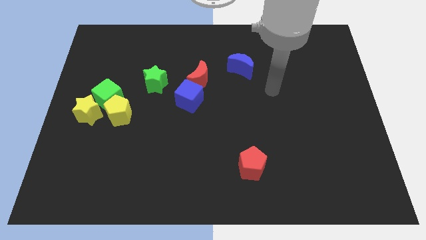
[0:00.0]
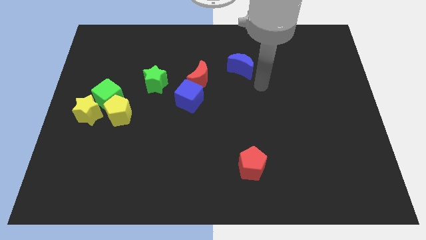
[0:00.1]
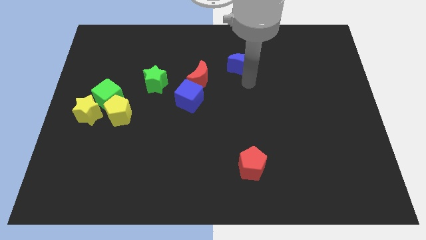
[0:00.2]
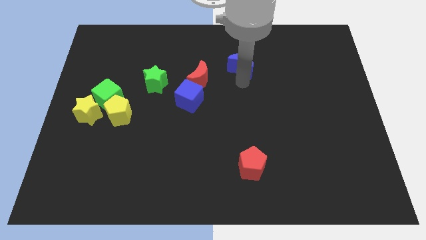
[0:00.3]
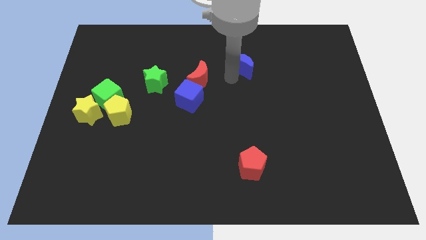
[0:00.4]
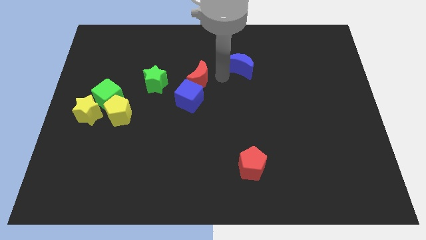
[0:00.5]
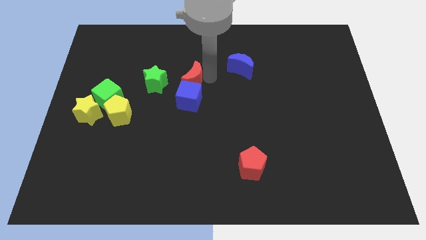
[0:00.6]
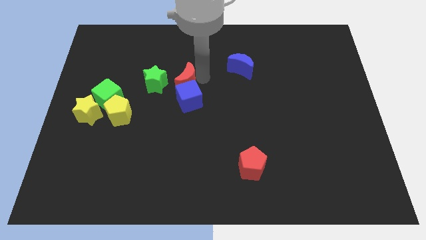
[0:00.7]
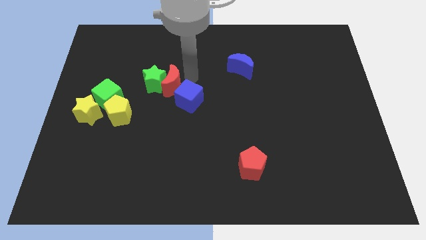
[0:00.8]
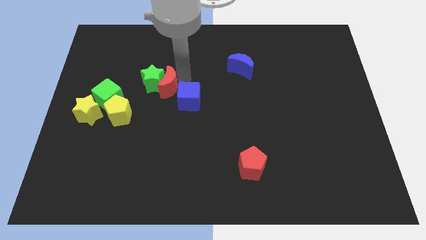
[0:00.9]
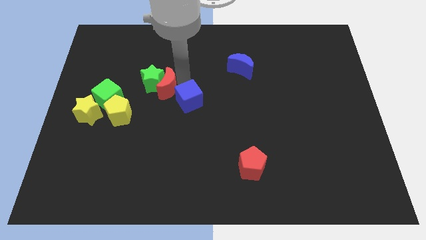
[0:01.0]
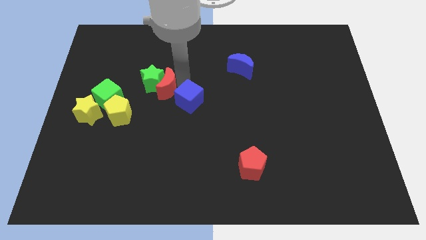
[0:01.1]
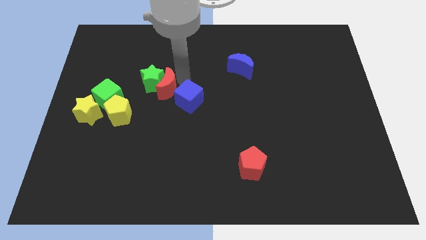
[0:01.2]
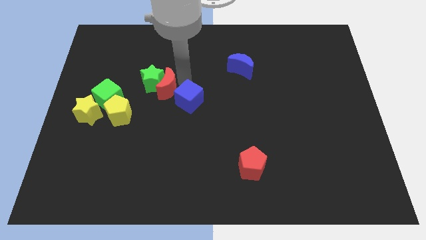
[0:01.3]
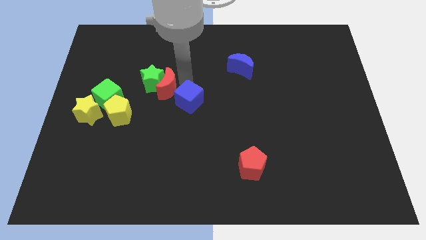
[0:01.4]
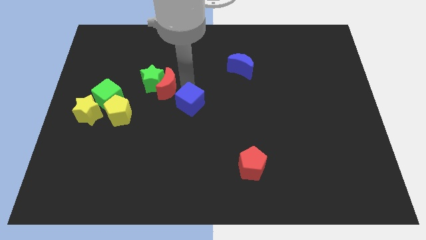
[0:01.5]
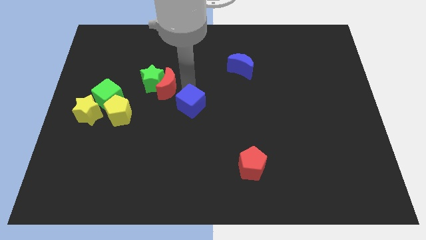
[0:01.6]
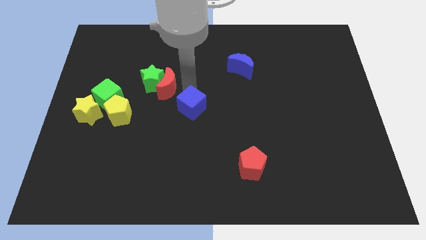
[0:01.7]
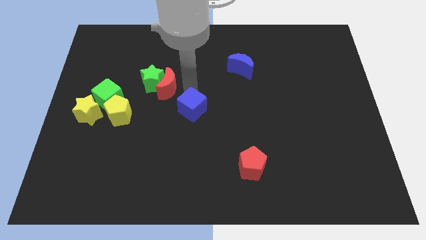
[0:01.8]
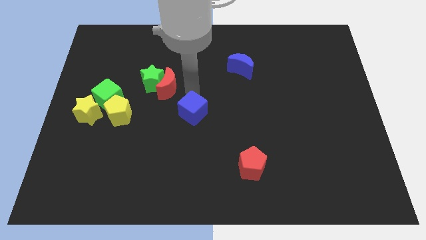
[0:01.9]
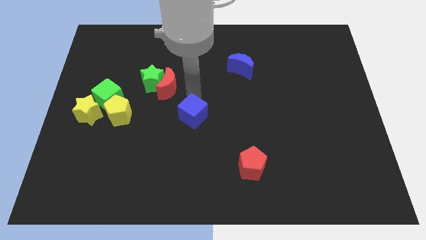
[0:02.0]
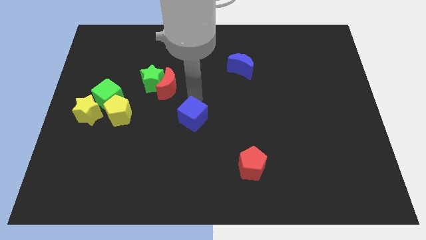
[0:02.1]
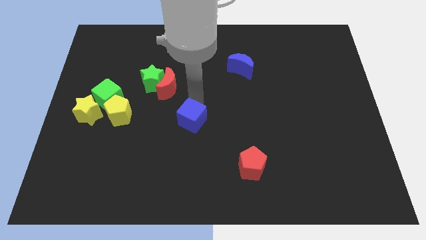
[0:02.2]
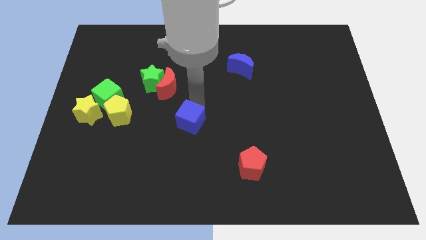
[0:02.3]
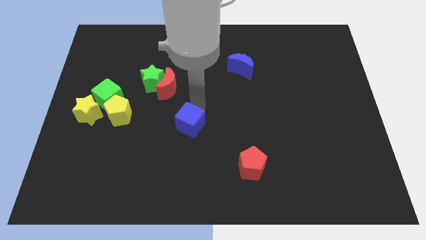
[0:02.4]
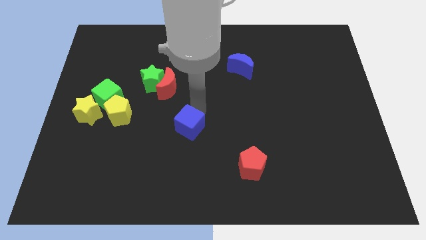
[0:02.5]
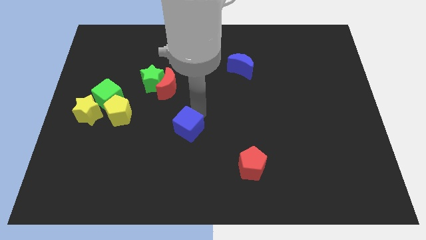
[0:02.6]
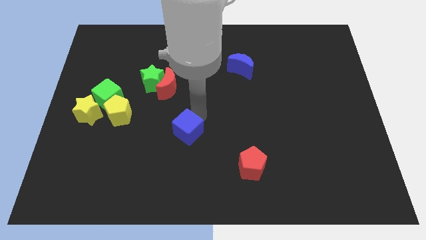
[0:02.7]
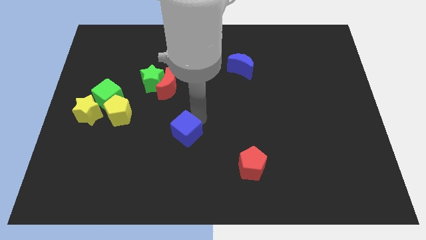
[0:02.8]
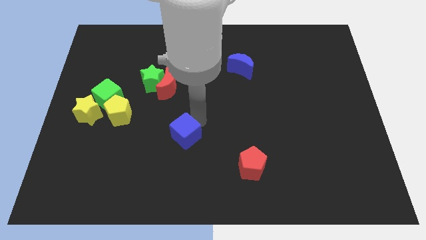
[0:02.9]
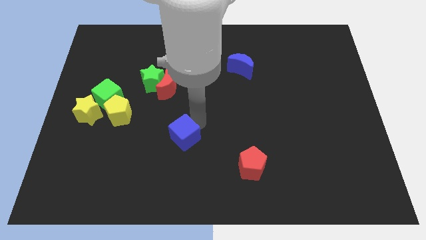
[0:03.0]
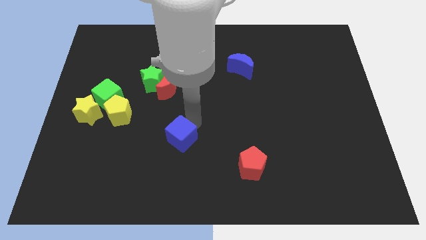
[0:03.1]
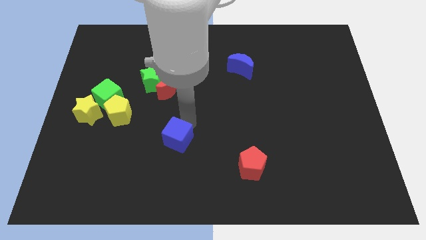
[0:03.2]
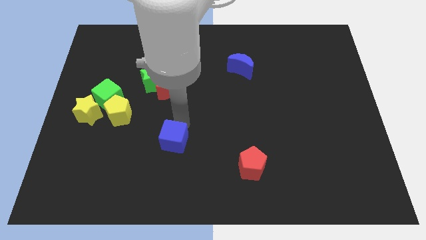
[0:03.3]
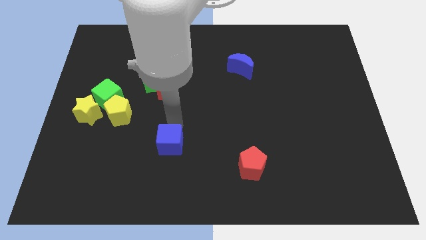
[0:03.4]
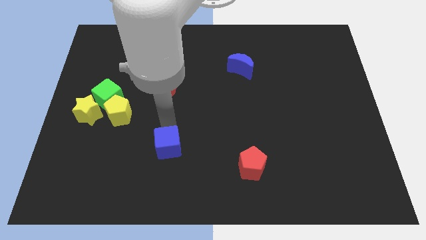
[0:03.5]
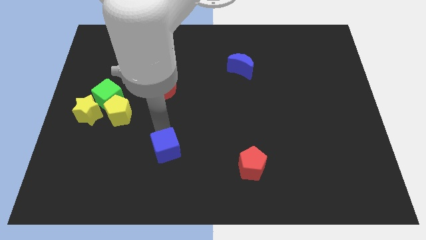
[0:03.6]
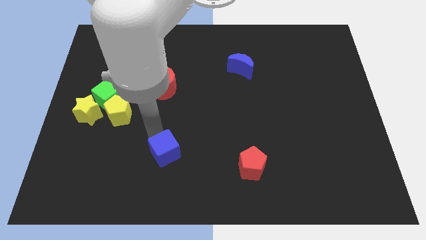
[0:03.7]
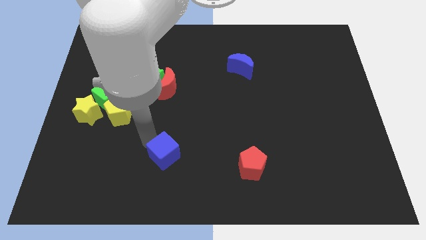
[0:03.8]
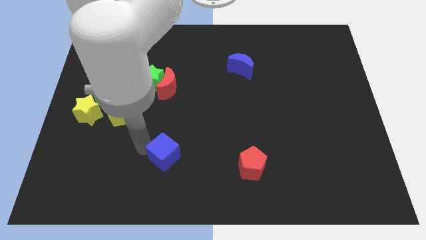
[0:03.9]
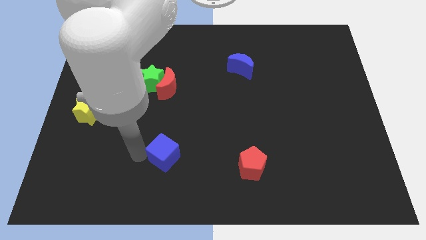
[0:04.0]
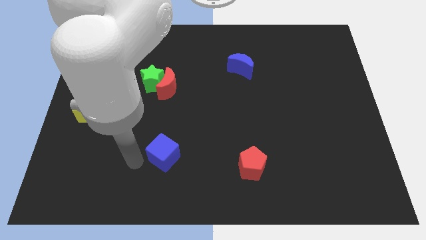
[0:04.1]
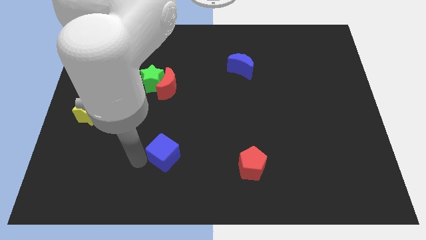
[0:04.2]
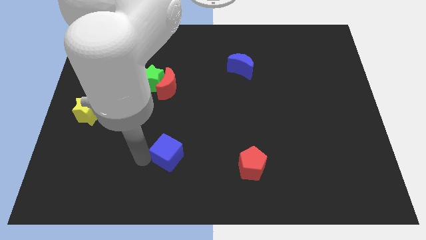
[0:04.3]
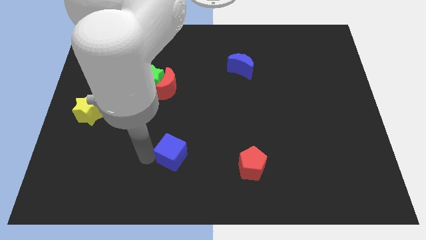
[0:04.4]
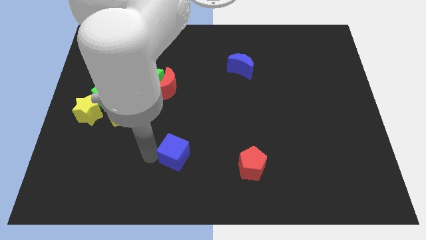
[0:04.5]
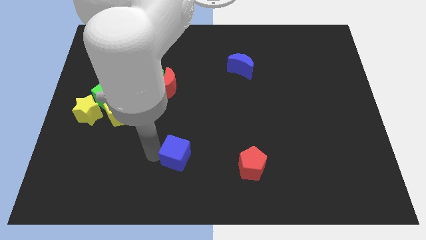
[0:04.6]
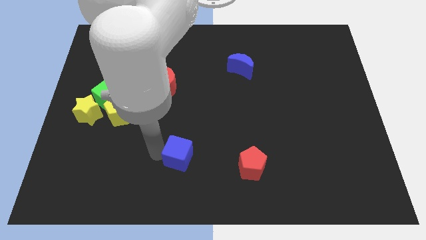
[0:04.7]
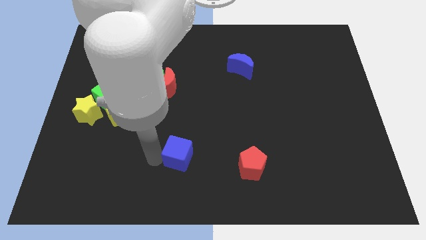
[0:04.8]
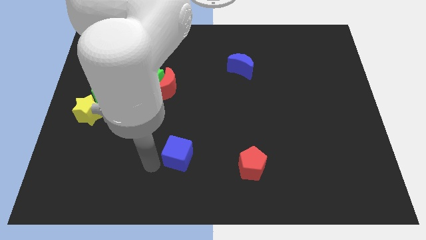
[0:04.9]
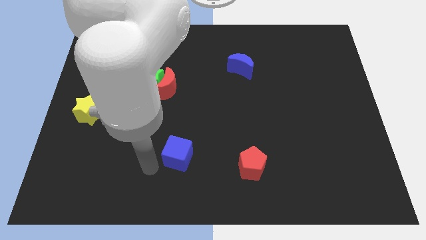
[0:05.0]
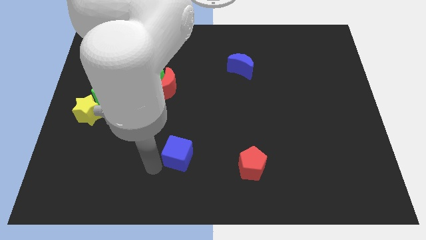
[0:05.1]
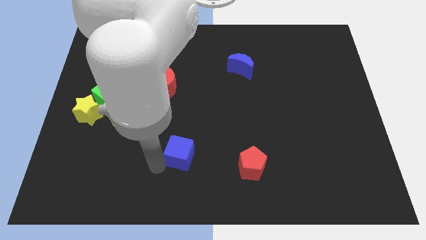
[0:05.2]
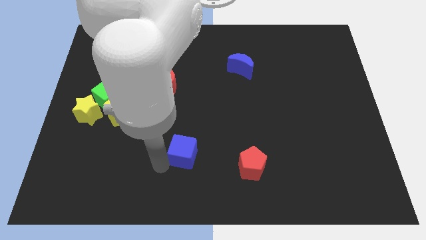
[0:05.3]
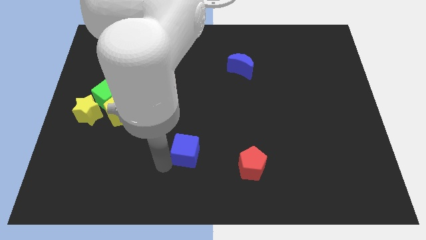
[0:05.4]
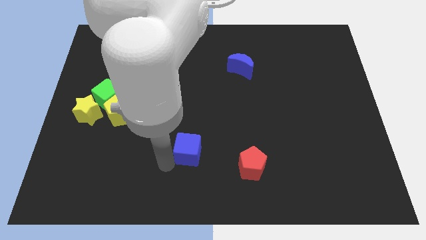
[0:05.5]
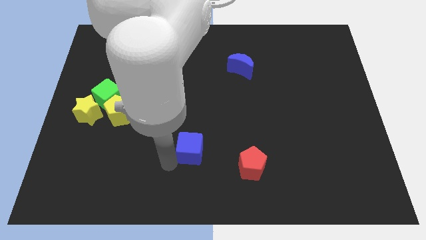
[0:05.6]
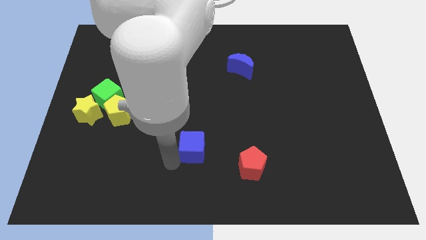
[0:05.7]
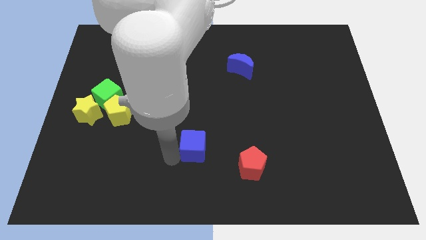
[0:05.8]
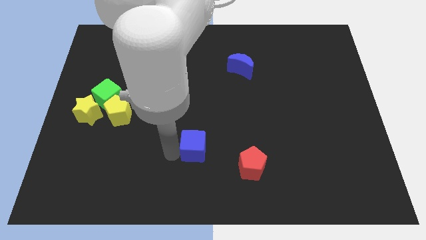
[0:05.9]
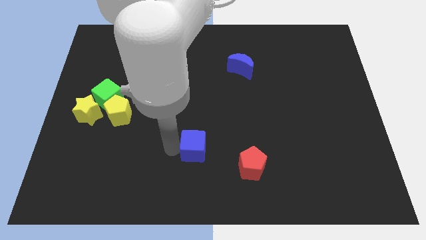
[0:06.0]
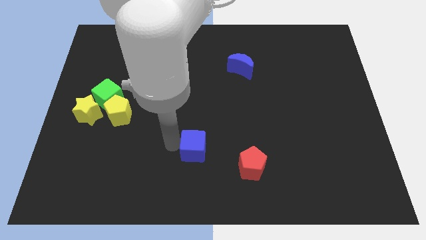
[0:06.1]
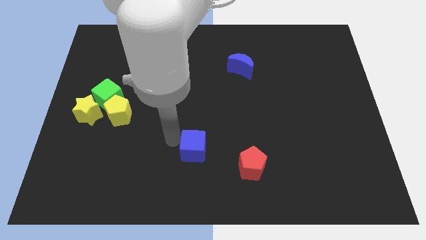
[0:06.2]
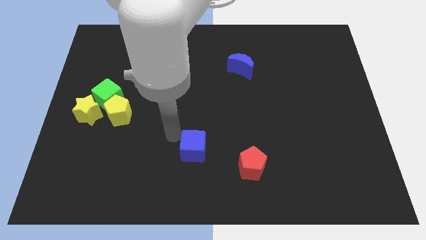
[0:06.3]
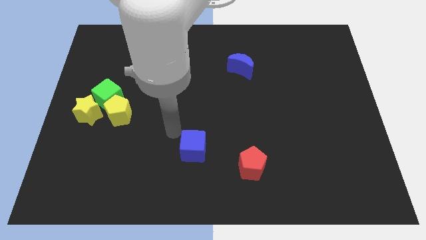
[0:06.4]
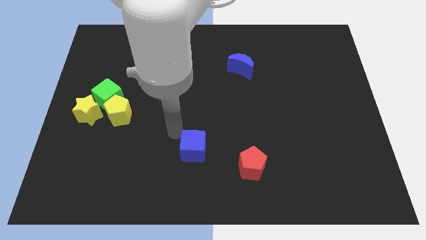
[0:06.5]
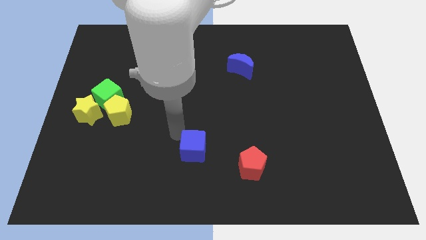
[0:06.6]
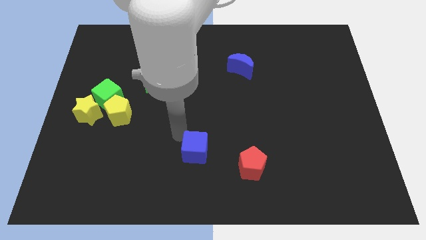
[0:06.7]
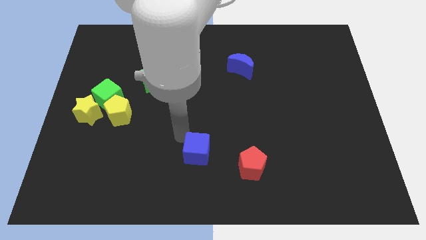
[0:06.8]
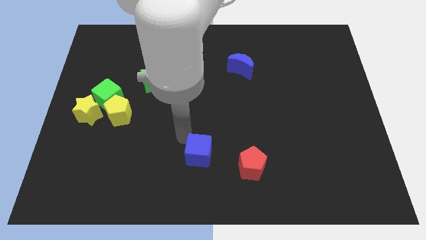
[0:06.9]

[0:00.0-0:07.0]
put the blue cube to the bottom
